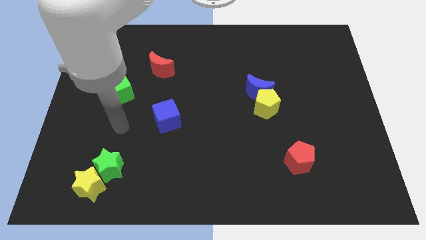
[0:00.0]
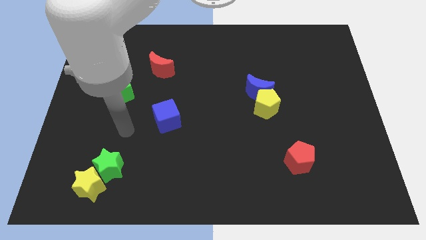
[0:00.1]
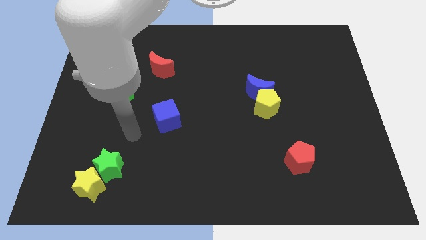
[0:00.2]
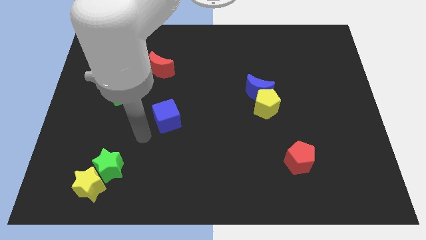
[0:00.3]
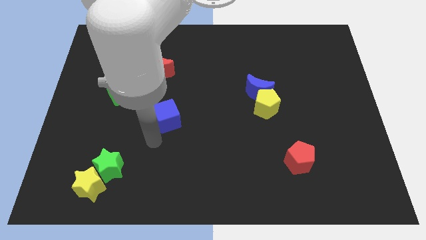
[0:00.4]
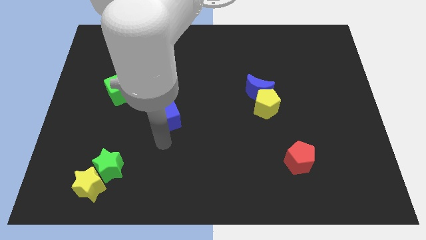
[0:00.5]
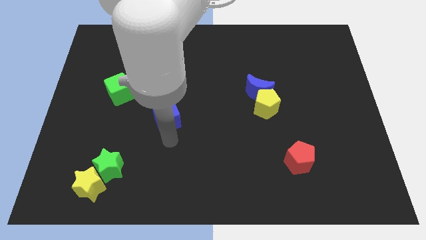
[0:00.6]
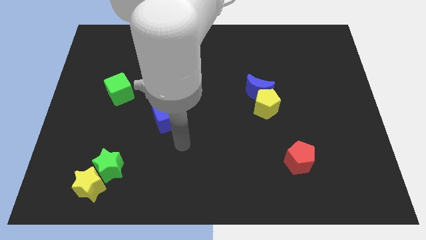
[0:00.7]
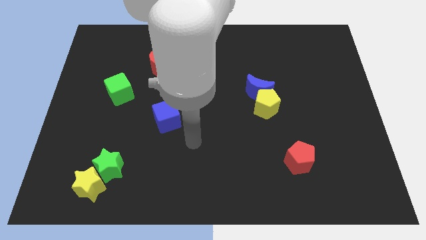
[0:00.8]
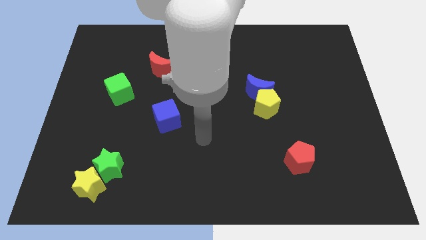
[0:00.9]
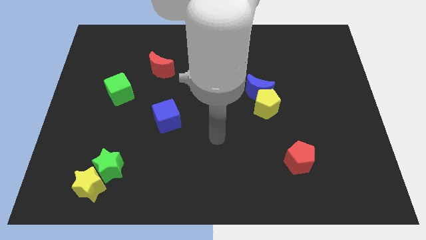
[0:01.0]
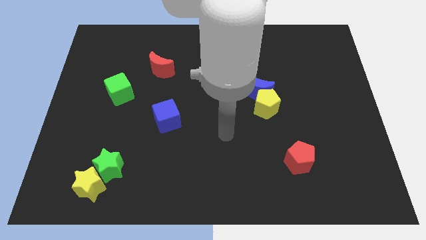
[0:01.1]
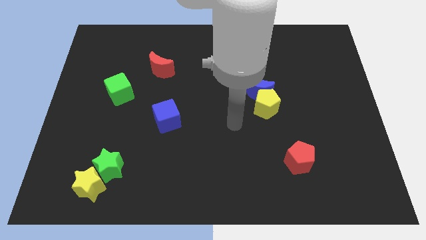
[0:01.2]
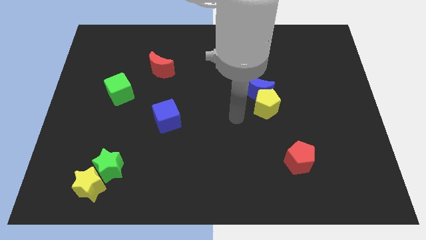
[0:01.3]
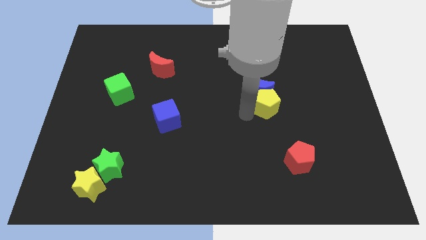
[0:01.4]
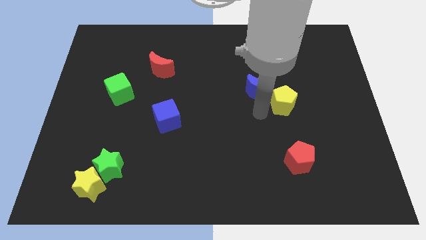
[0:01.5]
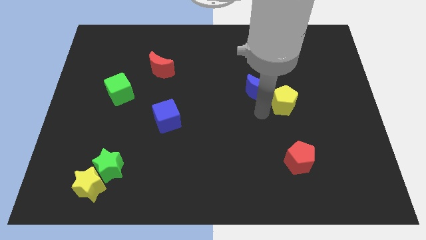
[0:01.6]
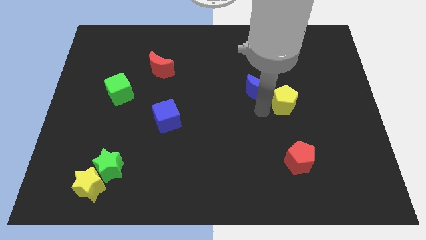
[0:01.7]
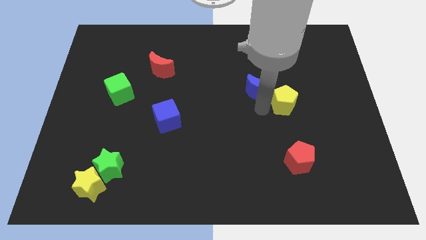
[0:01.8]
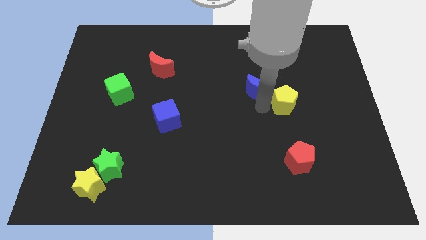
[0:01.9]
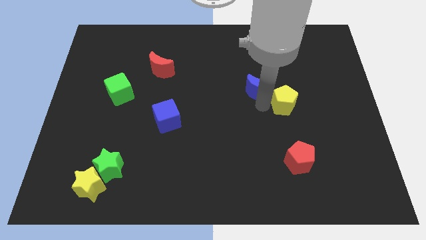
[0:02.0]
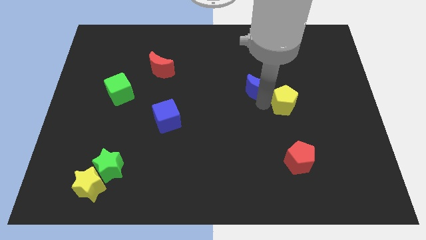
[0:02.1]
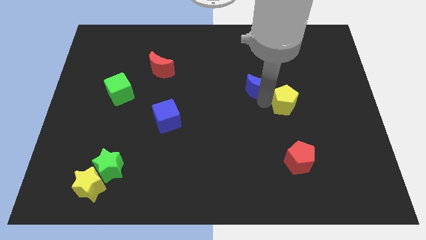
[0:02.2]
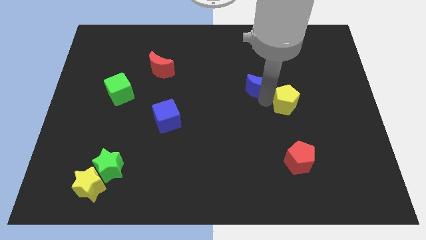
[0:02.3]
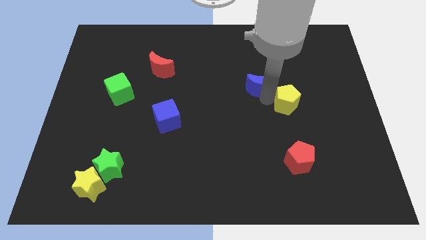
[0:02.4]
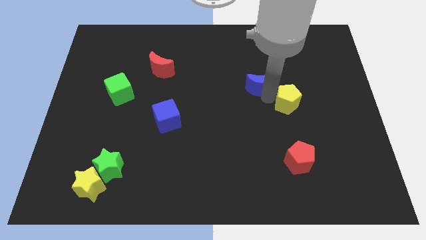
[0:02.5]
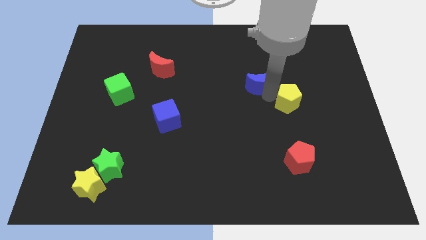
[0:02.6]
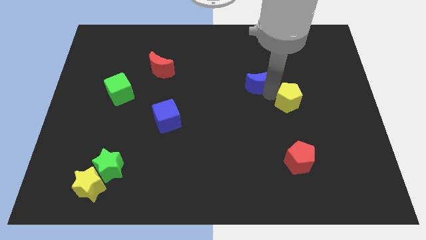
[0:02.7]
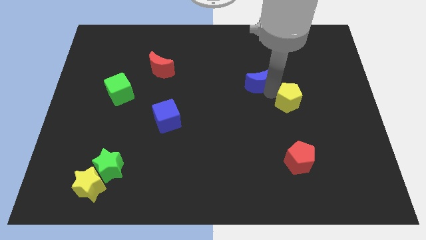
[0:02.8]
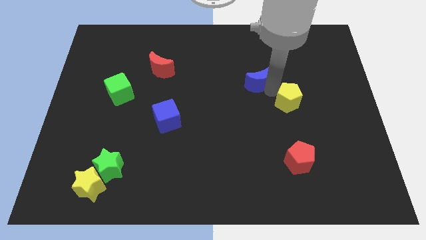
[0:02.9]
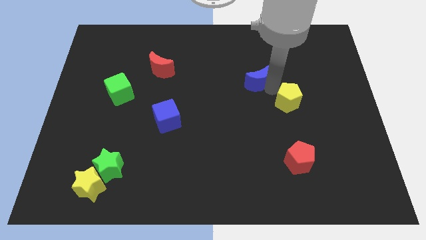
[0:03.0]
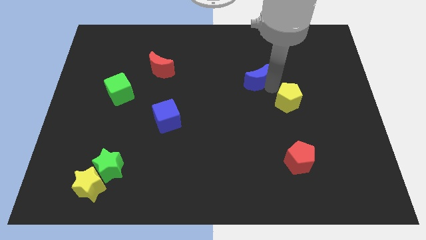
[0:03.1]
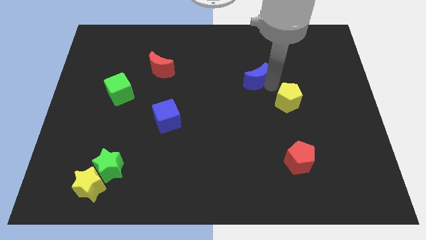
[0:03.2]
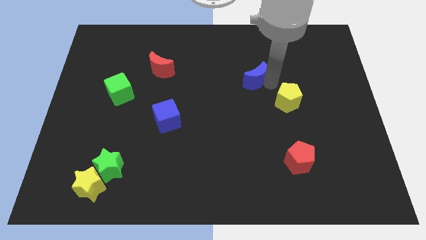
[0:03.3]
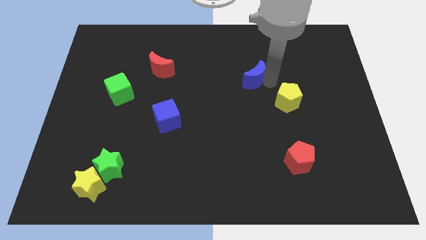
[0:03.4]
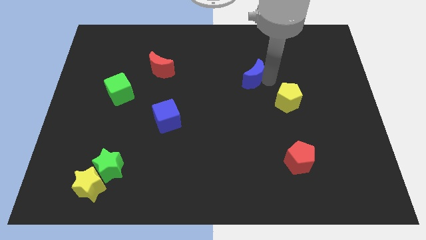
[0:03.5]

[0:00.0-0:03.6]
move the blue moon away from the yellow pentagon

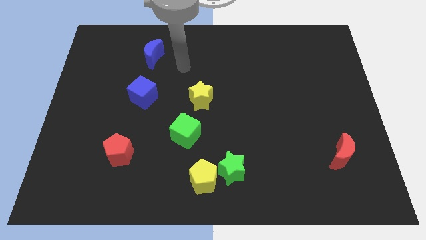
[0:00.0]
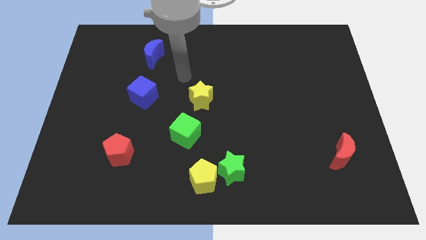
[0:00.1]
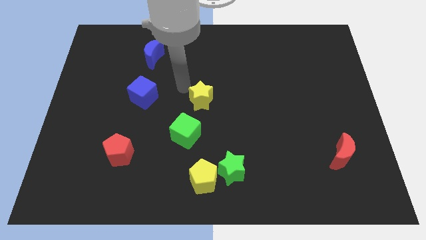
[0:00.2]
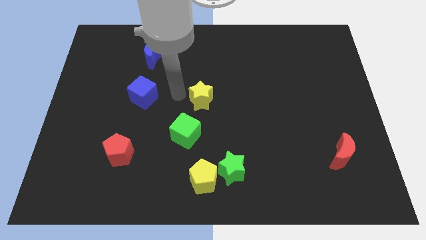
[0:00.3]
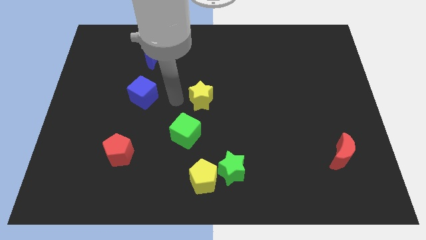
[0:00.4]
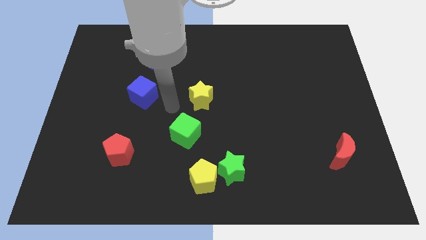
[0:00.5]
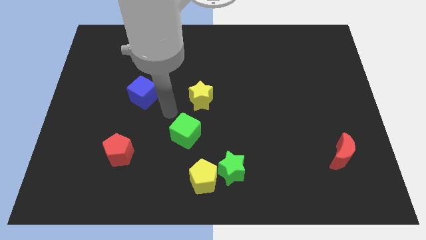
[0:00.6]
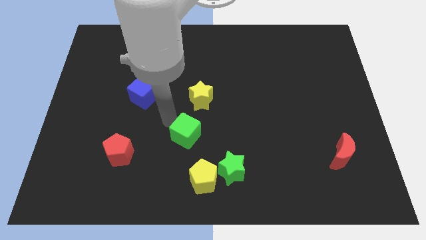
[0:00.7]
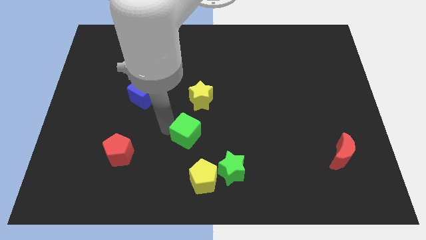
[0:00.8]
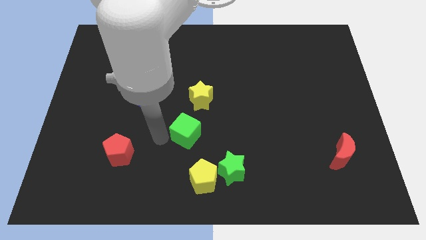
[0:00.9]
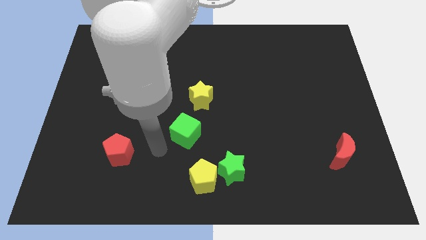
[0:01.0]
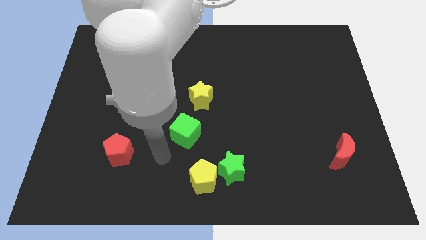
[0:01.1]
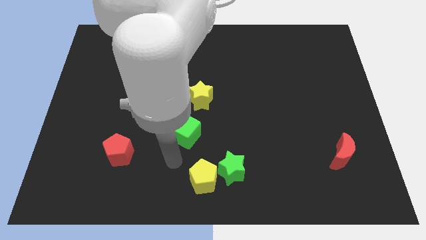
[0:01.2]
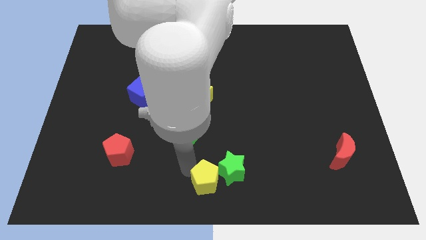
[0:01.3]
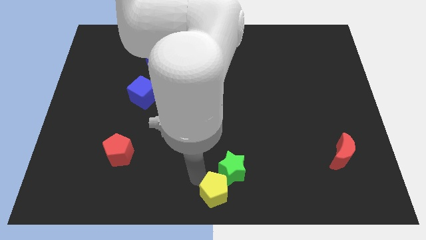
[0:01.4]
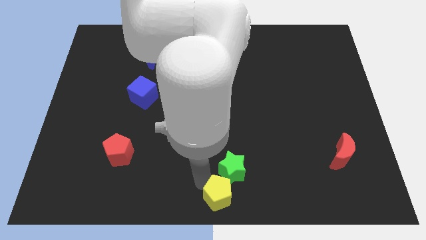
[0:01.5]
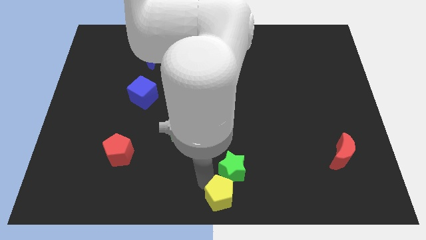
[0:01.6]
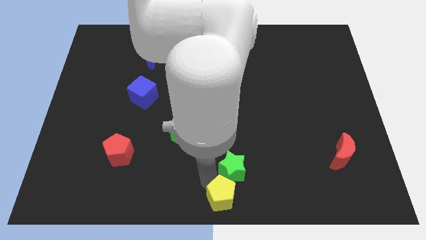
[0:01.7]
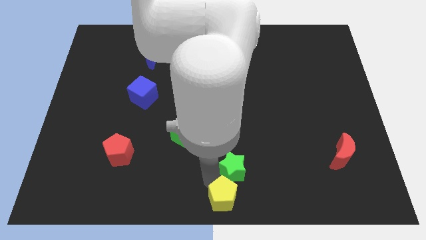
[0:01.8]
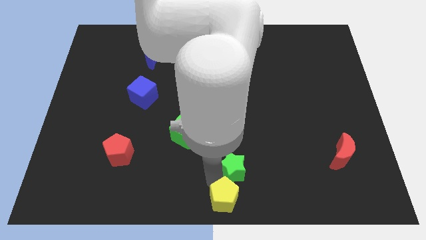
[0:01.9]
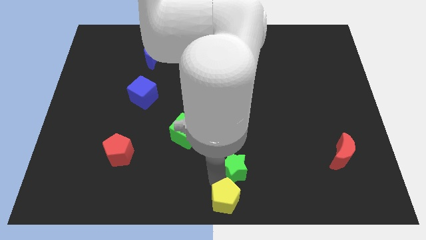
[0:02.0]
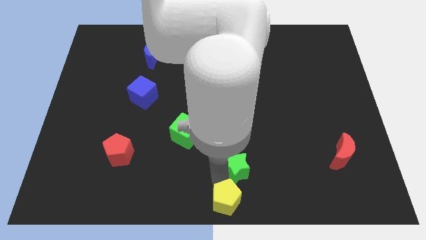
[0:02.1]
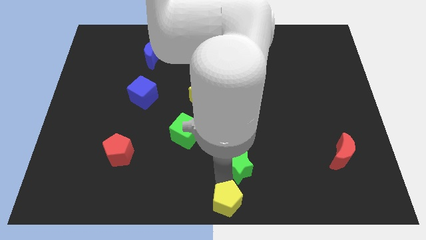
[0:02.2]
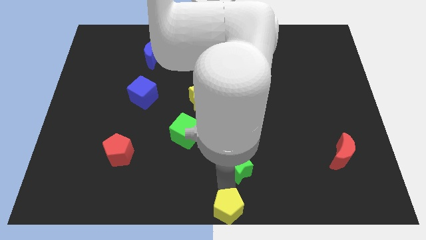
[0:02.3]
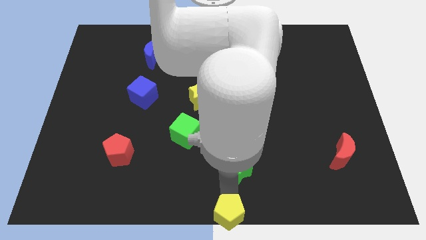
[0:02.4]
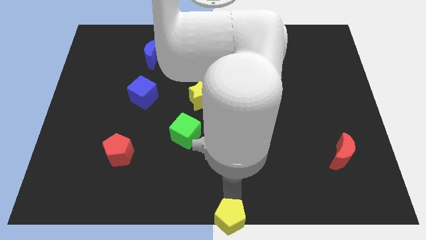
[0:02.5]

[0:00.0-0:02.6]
pull the green star apart from the yellow pentagon

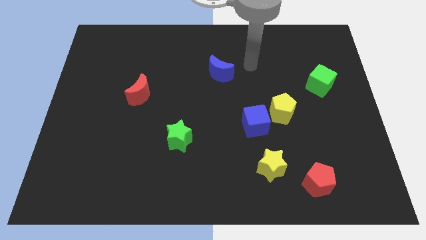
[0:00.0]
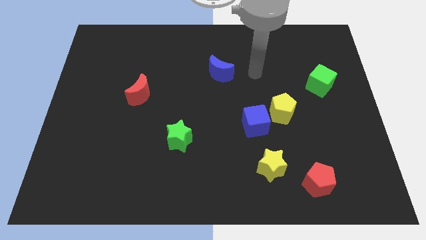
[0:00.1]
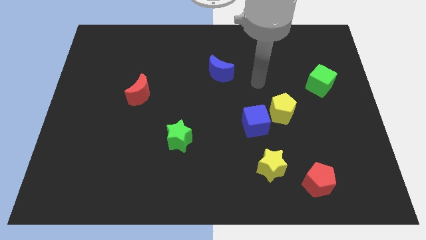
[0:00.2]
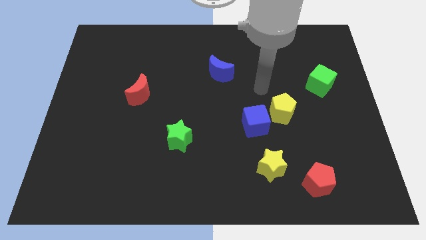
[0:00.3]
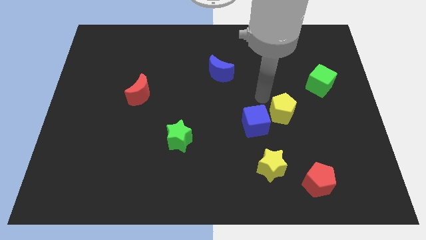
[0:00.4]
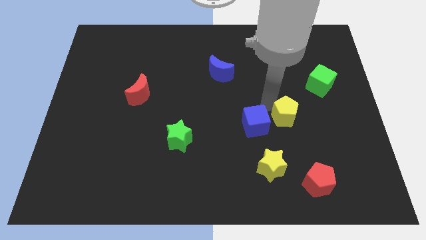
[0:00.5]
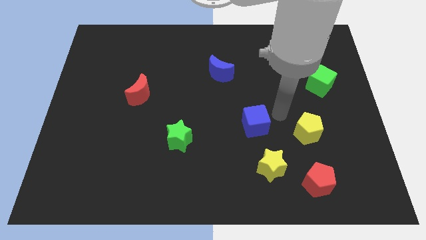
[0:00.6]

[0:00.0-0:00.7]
pull the blue cube apart from the yellow pentagon

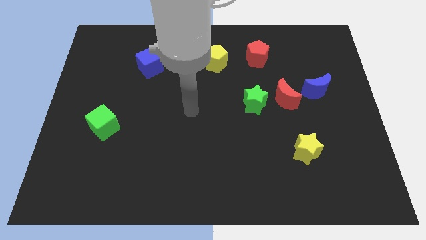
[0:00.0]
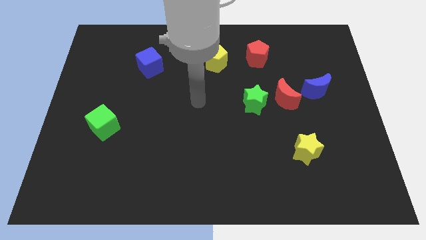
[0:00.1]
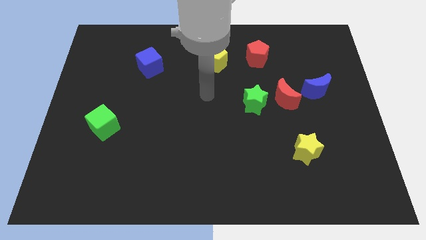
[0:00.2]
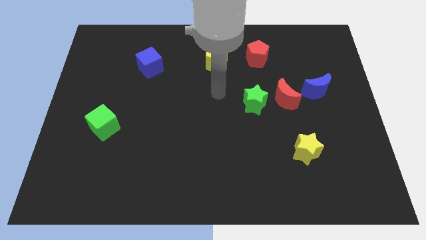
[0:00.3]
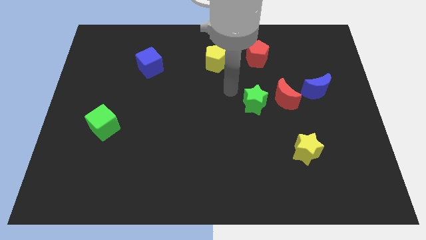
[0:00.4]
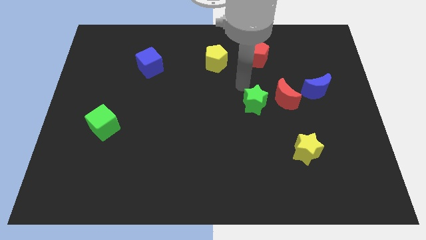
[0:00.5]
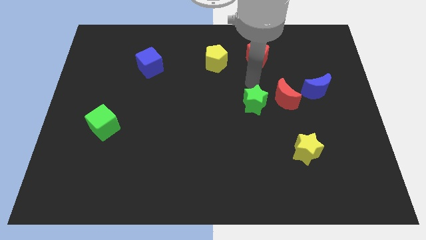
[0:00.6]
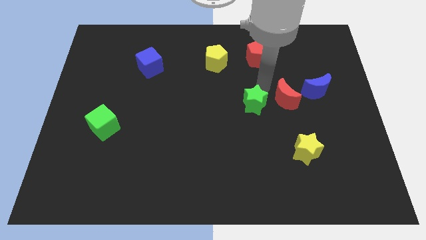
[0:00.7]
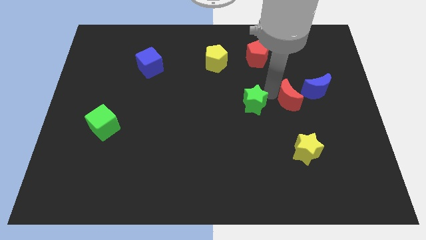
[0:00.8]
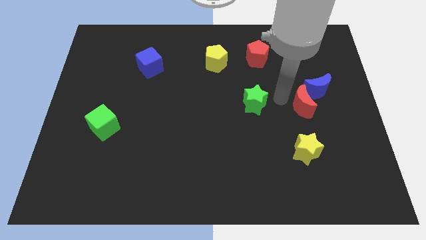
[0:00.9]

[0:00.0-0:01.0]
separate the green star from the red moon

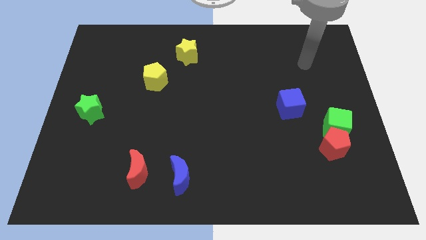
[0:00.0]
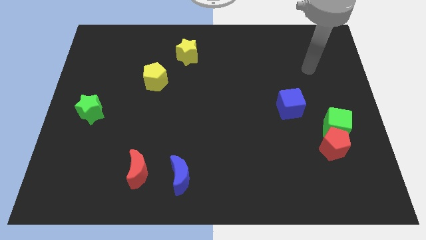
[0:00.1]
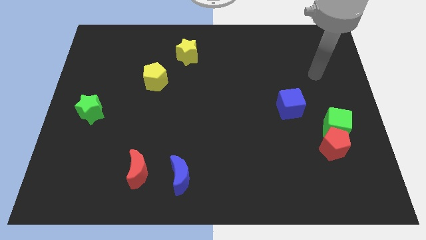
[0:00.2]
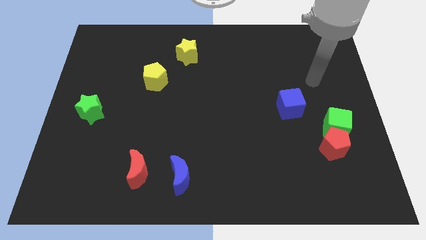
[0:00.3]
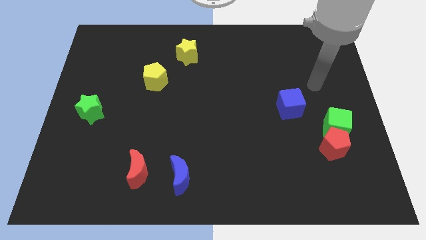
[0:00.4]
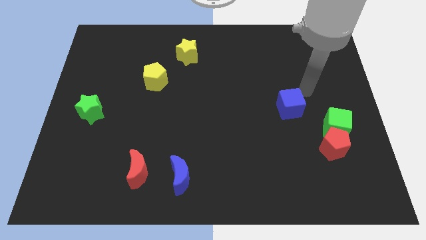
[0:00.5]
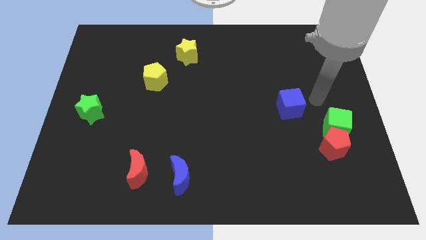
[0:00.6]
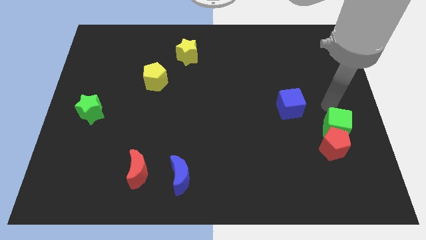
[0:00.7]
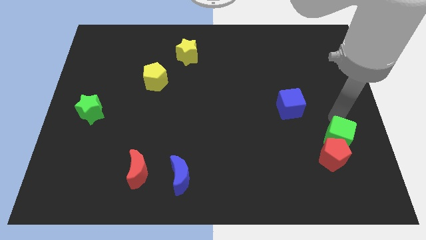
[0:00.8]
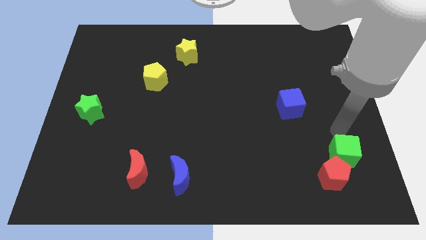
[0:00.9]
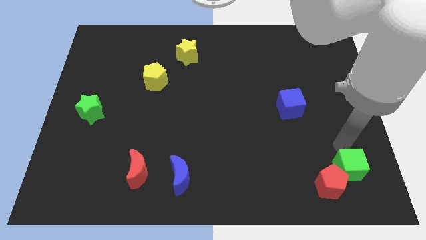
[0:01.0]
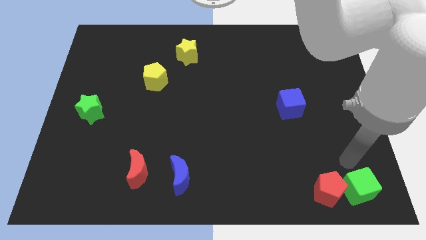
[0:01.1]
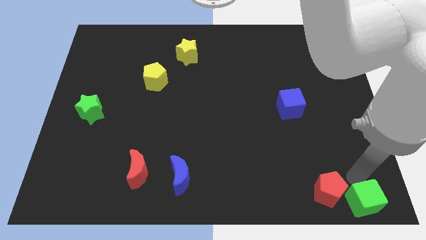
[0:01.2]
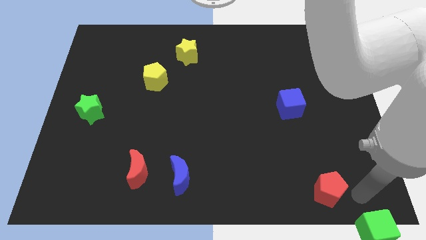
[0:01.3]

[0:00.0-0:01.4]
pull the red pentagon apart from the green cube

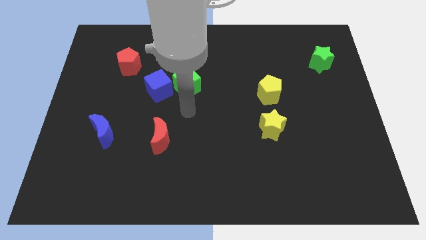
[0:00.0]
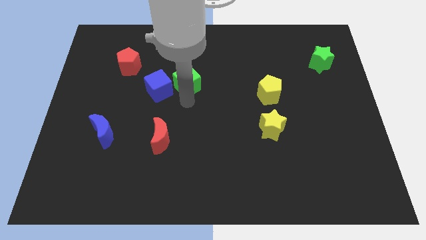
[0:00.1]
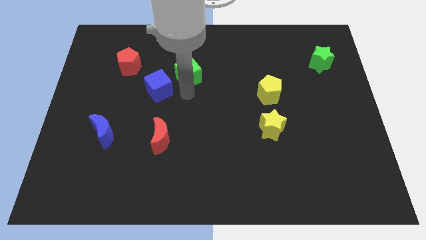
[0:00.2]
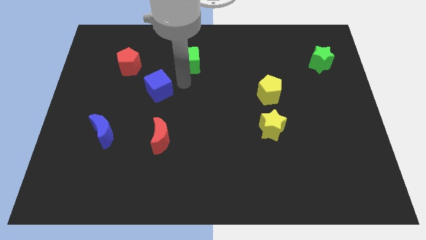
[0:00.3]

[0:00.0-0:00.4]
move the blue cube away from the green cube
